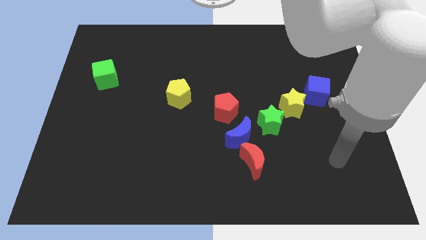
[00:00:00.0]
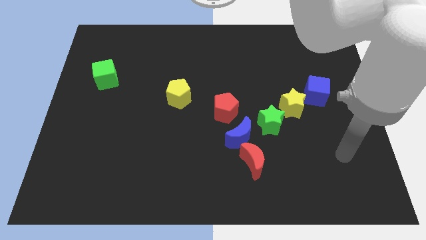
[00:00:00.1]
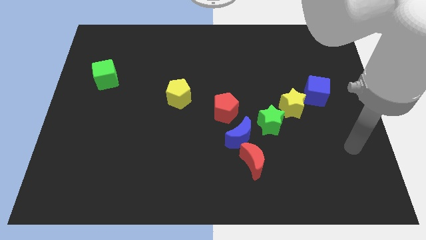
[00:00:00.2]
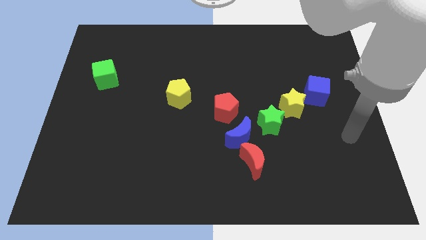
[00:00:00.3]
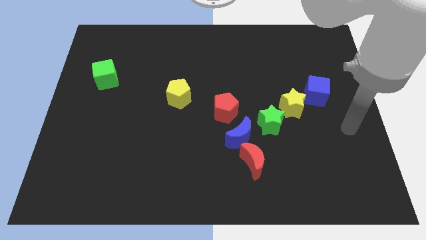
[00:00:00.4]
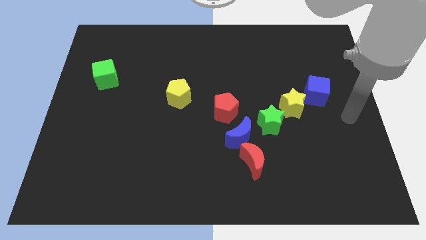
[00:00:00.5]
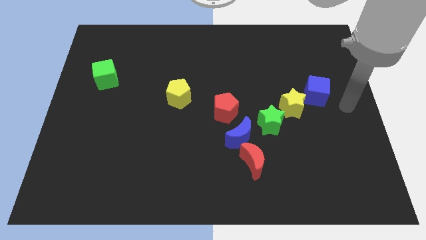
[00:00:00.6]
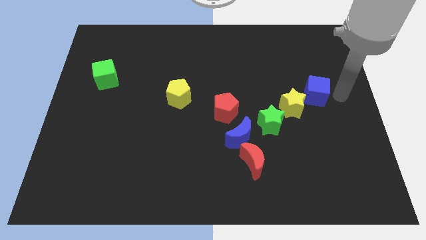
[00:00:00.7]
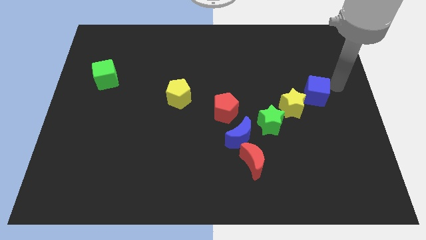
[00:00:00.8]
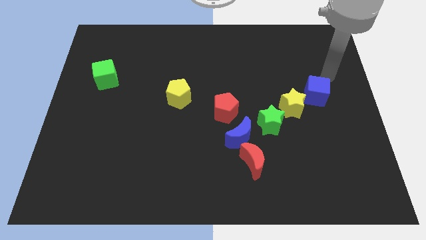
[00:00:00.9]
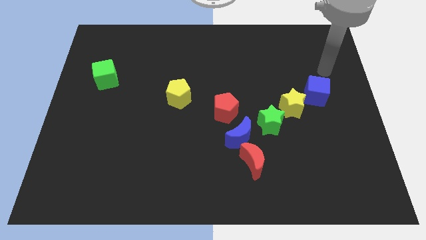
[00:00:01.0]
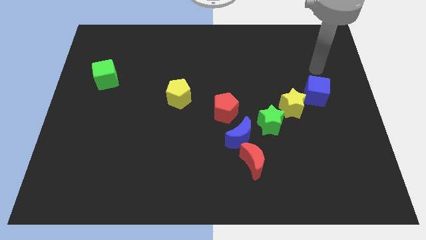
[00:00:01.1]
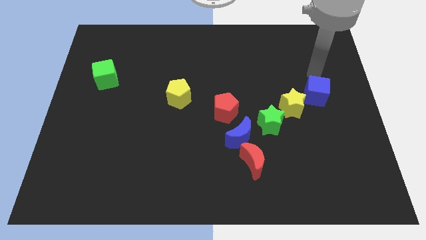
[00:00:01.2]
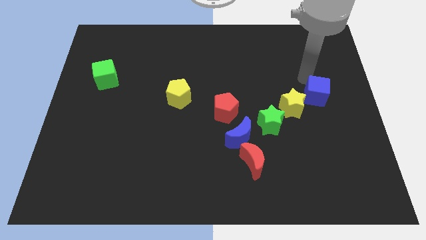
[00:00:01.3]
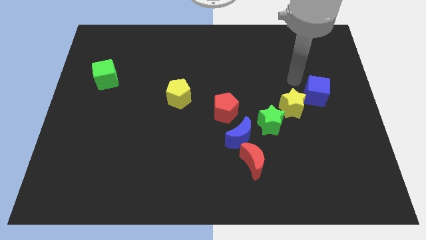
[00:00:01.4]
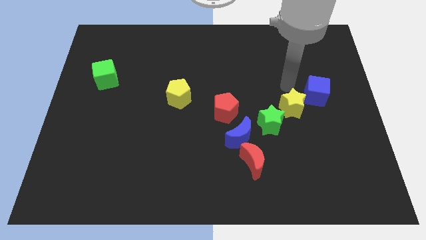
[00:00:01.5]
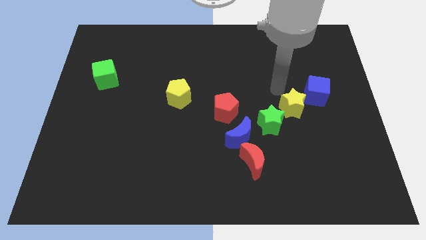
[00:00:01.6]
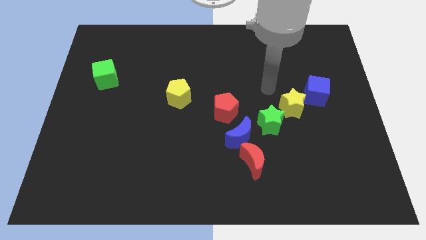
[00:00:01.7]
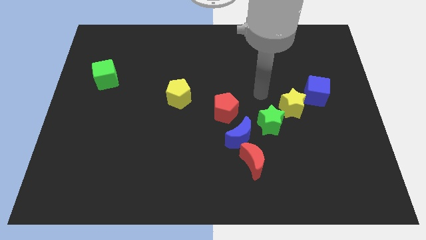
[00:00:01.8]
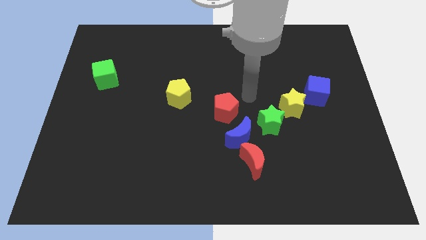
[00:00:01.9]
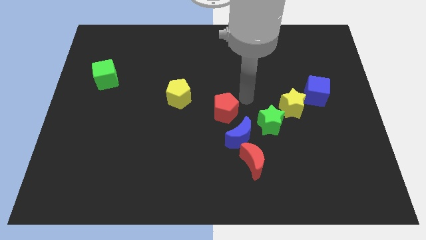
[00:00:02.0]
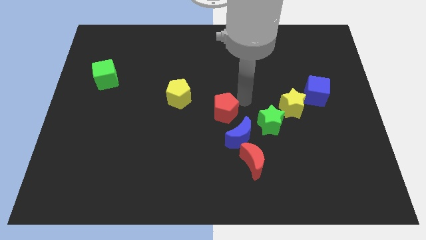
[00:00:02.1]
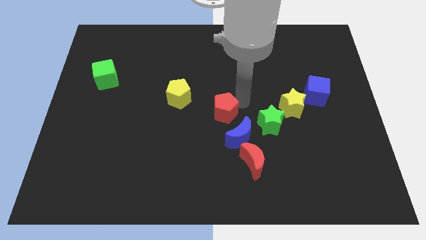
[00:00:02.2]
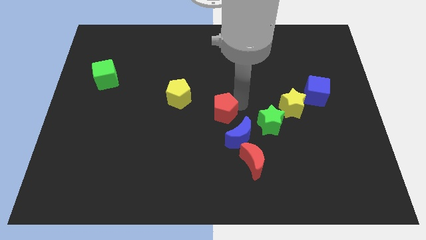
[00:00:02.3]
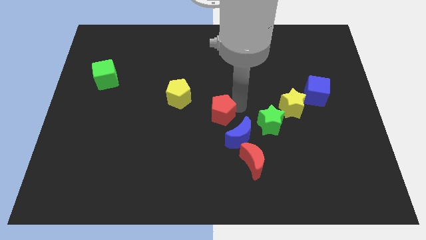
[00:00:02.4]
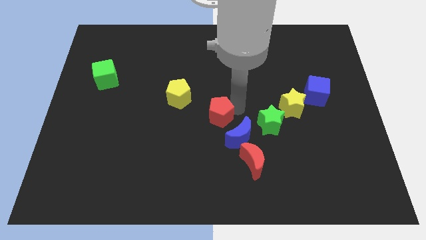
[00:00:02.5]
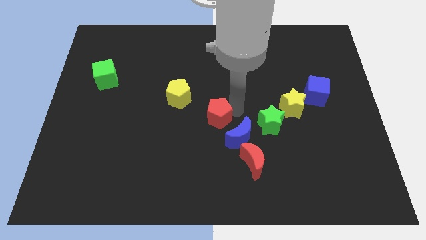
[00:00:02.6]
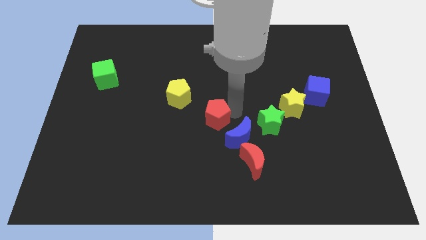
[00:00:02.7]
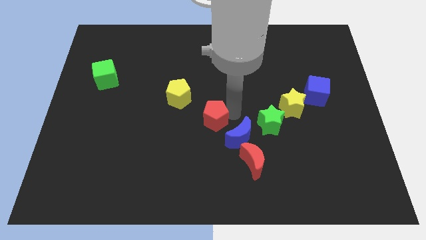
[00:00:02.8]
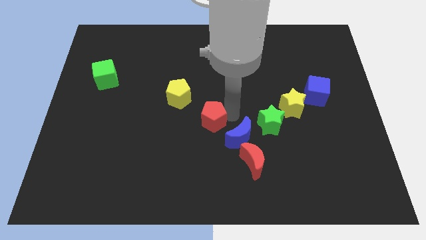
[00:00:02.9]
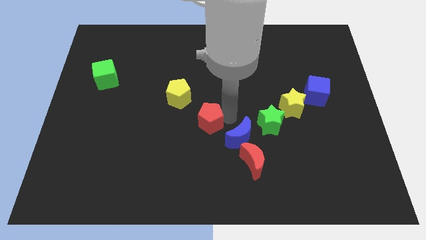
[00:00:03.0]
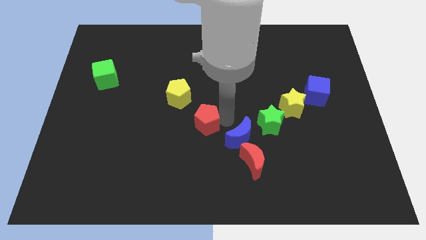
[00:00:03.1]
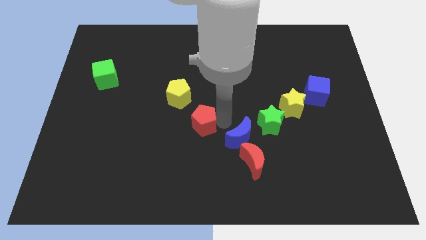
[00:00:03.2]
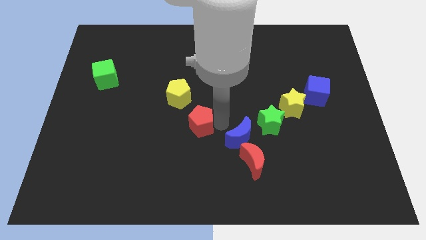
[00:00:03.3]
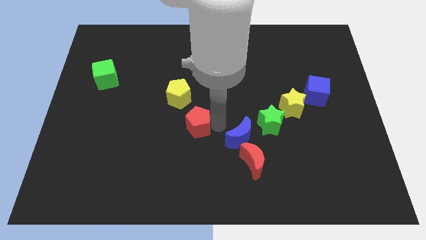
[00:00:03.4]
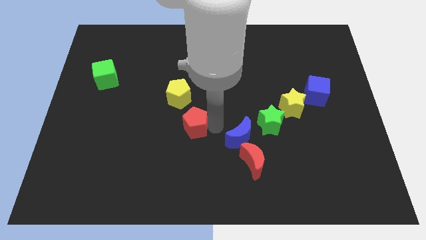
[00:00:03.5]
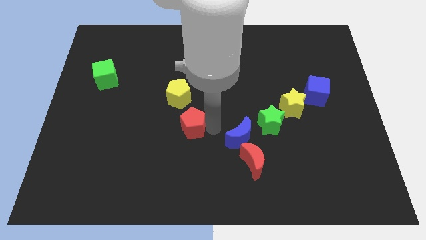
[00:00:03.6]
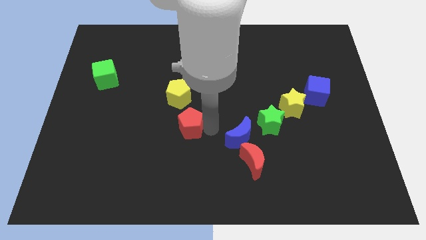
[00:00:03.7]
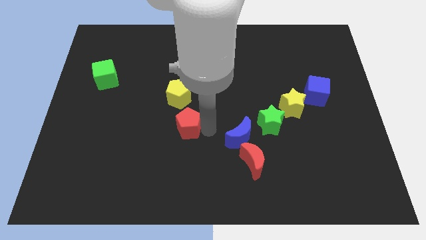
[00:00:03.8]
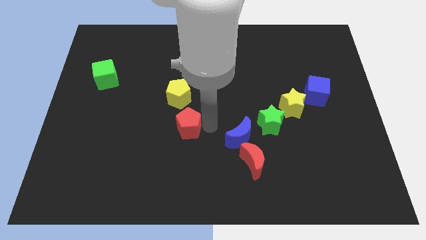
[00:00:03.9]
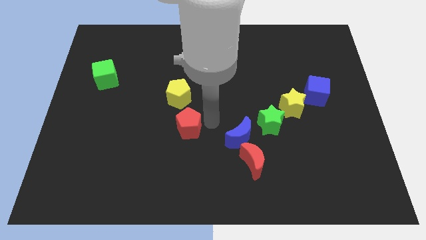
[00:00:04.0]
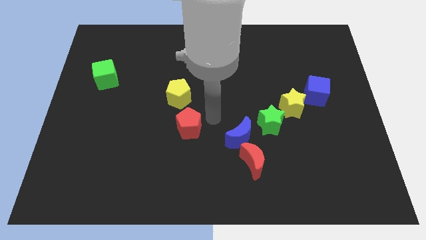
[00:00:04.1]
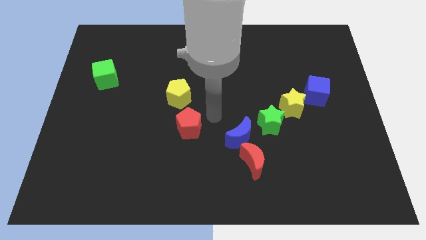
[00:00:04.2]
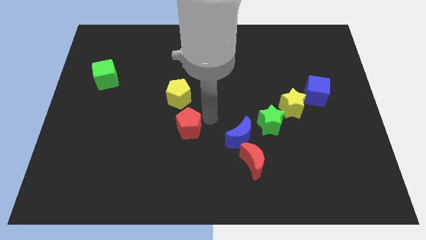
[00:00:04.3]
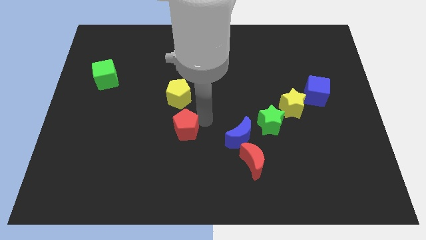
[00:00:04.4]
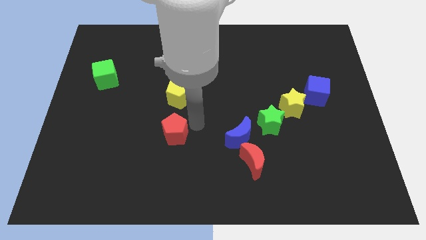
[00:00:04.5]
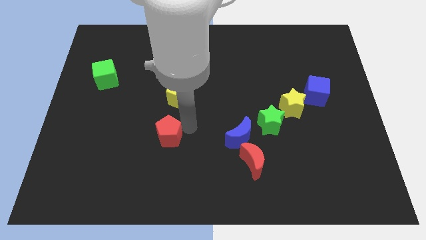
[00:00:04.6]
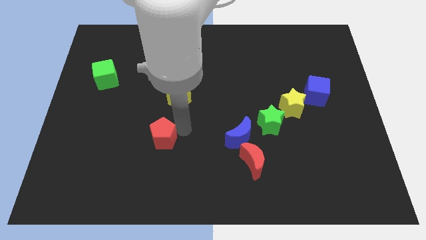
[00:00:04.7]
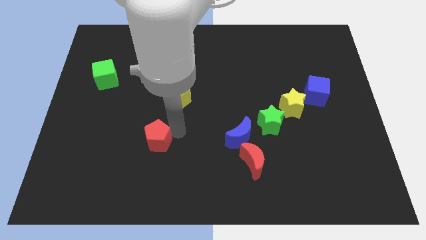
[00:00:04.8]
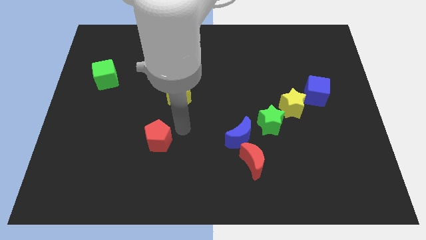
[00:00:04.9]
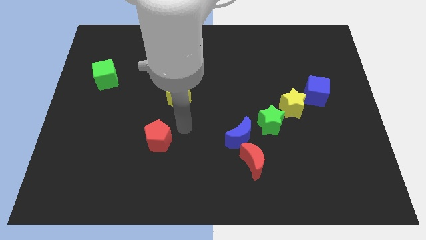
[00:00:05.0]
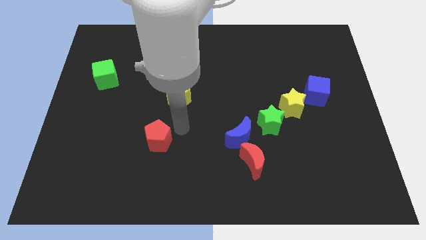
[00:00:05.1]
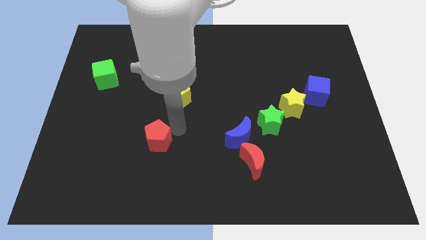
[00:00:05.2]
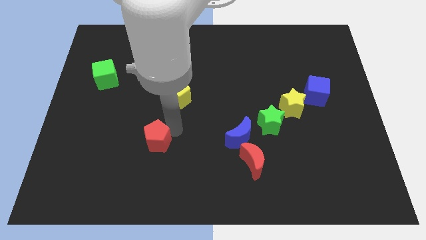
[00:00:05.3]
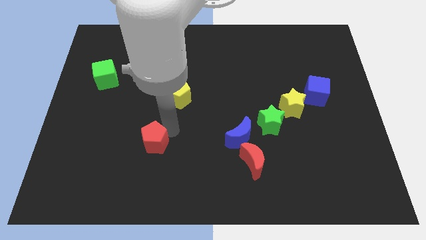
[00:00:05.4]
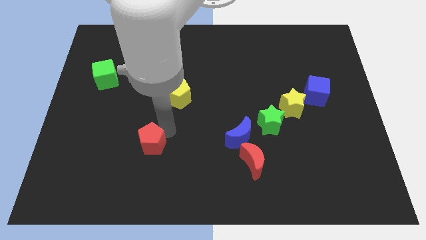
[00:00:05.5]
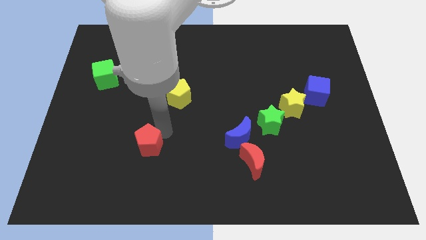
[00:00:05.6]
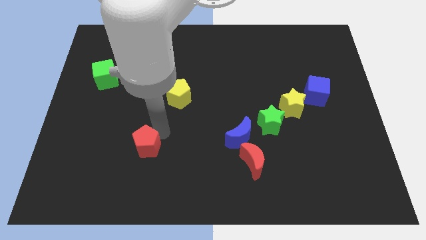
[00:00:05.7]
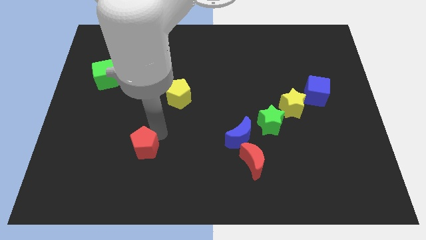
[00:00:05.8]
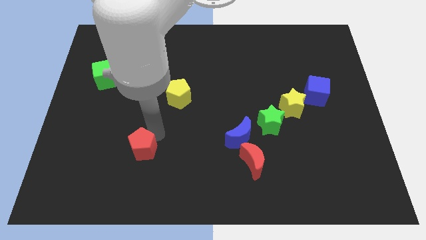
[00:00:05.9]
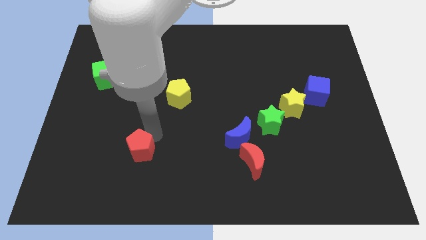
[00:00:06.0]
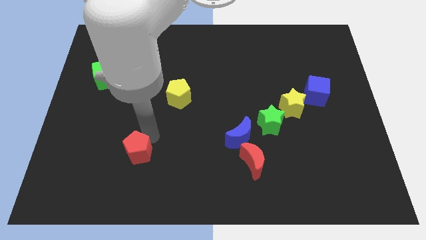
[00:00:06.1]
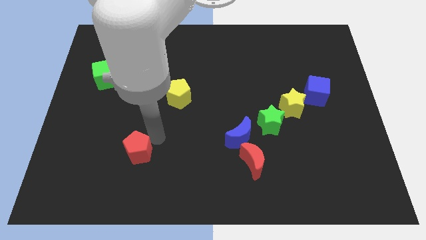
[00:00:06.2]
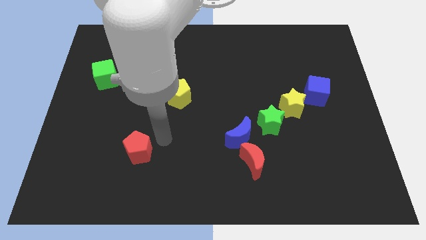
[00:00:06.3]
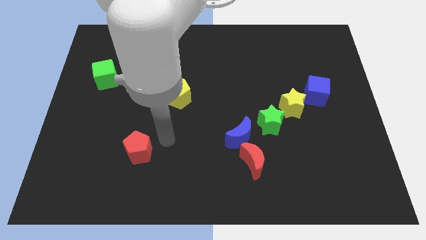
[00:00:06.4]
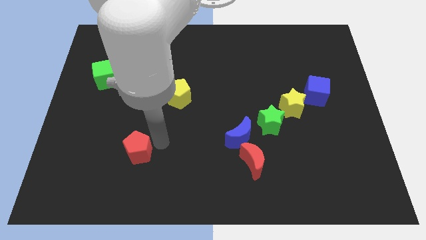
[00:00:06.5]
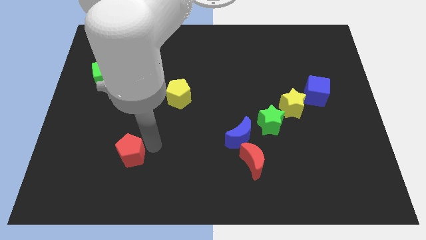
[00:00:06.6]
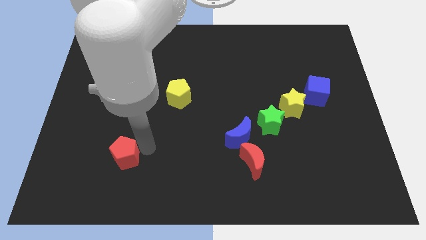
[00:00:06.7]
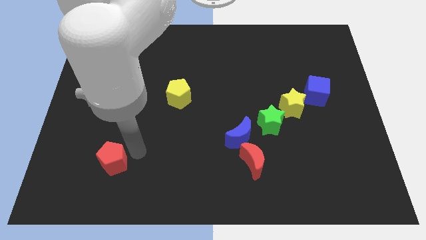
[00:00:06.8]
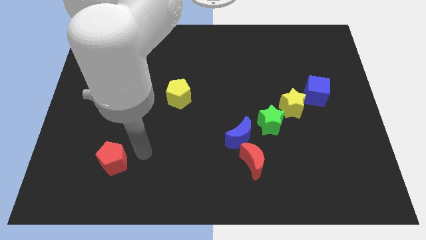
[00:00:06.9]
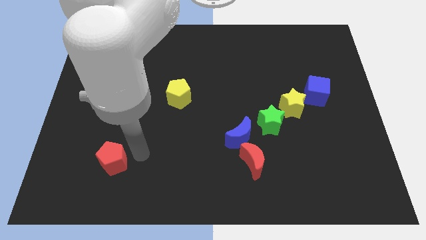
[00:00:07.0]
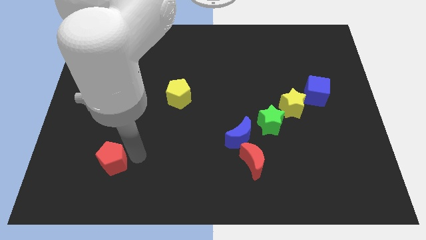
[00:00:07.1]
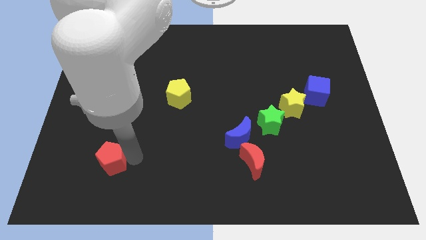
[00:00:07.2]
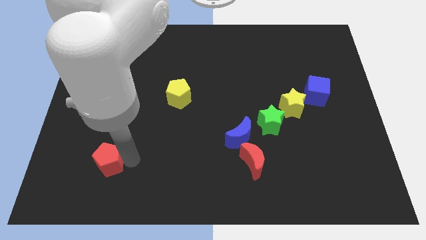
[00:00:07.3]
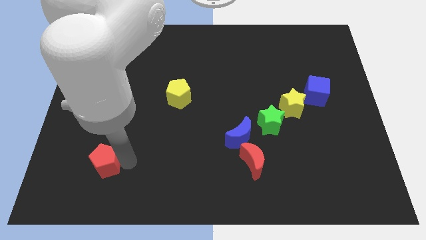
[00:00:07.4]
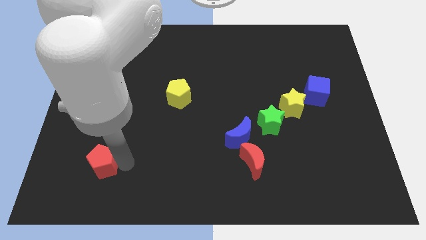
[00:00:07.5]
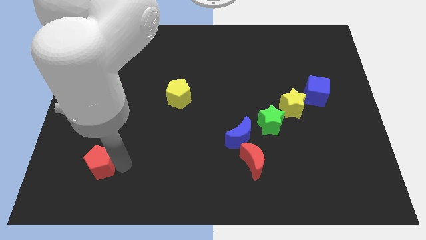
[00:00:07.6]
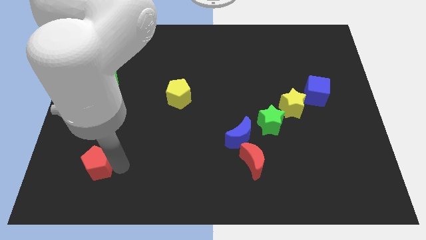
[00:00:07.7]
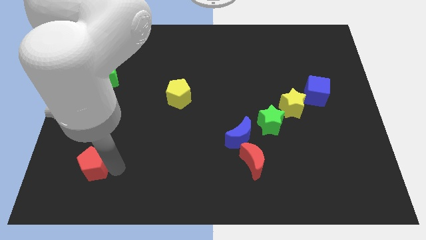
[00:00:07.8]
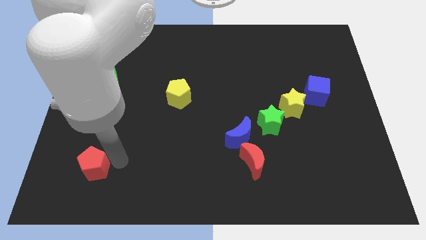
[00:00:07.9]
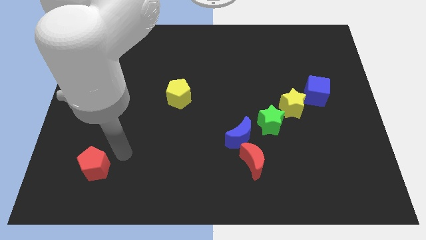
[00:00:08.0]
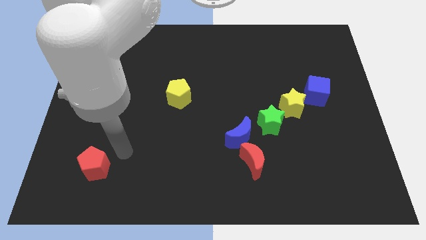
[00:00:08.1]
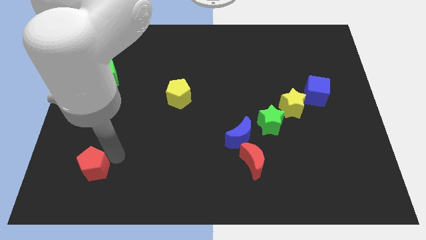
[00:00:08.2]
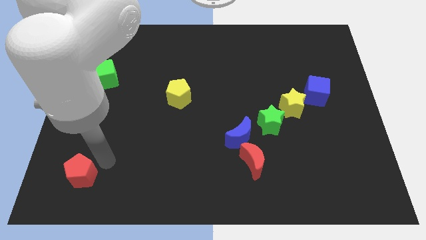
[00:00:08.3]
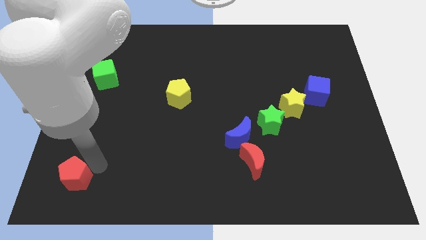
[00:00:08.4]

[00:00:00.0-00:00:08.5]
slide the red pentagon to the lower left corner
